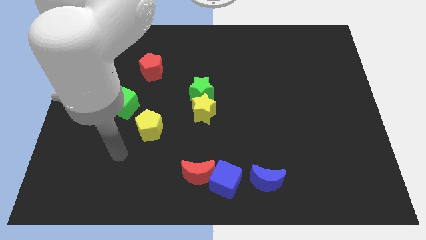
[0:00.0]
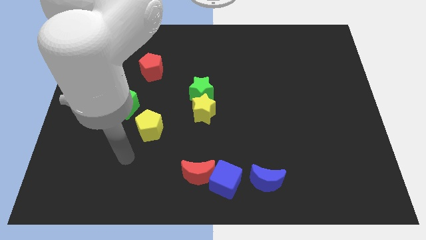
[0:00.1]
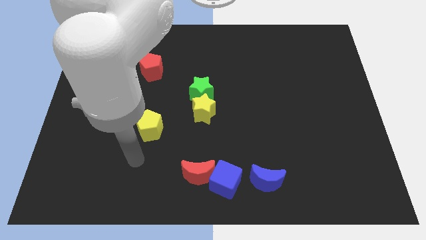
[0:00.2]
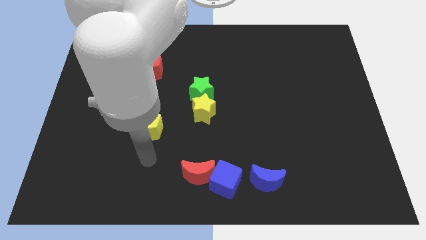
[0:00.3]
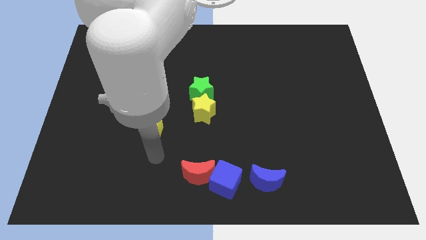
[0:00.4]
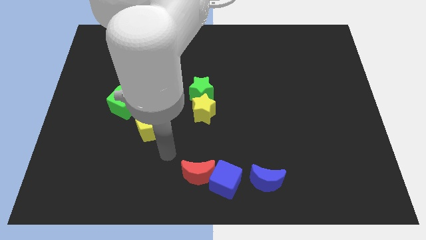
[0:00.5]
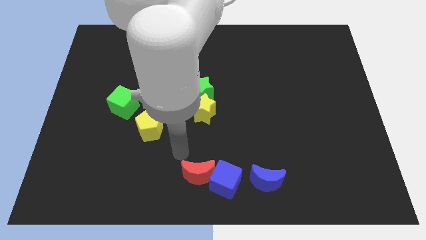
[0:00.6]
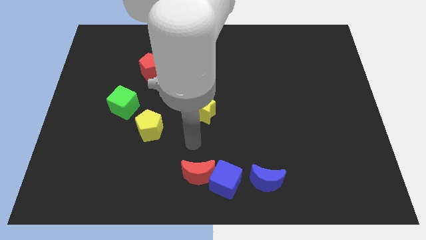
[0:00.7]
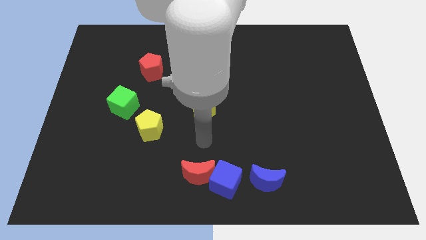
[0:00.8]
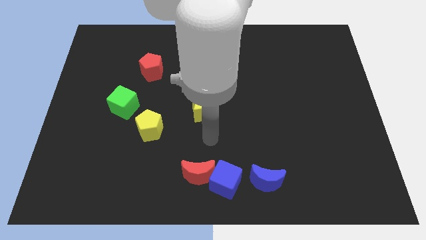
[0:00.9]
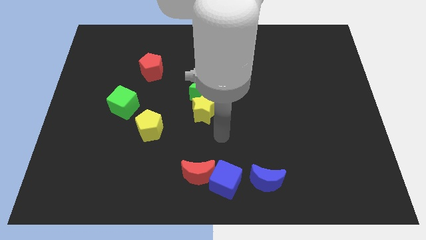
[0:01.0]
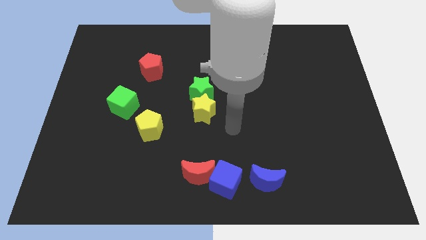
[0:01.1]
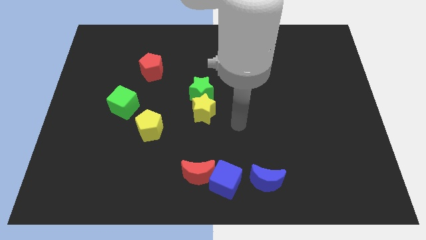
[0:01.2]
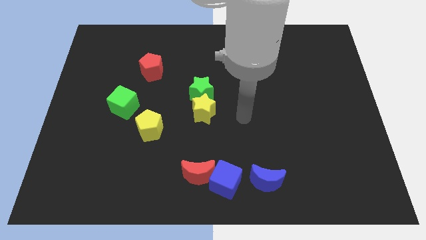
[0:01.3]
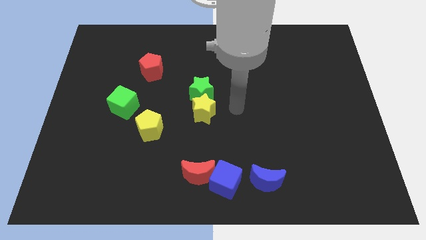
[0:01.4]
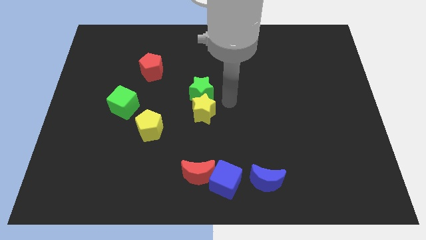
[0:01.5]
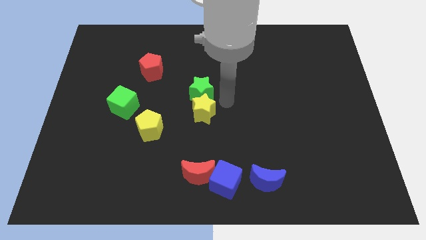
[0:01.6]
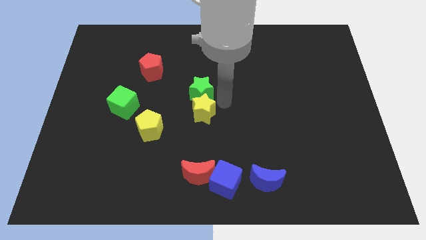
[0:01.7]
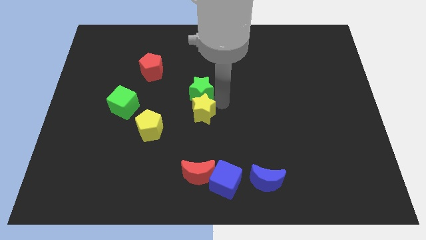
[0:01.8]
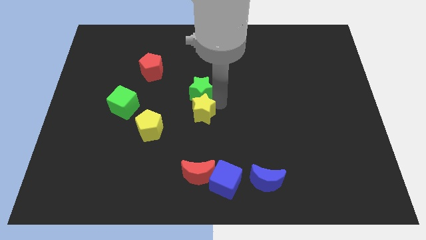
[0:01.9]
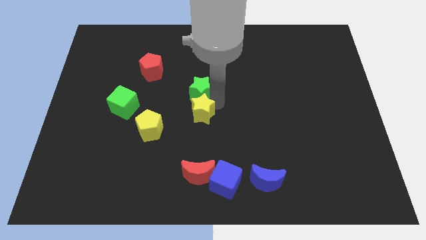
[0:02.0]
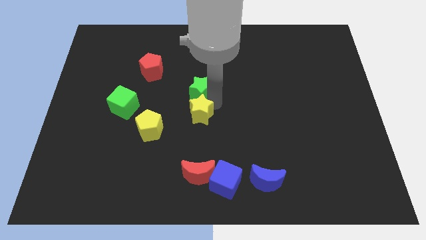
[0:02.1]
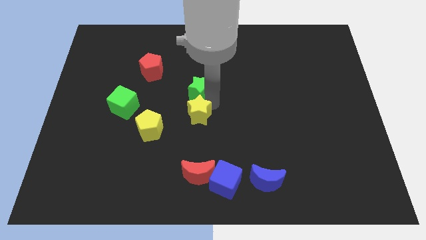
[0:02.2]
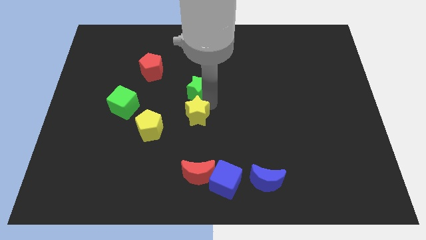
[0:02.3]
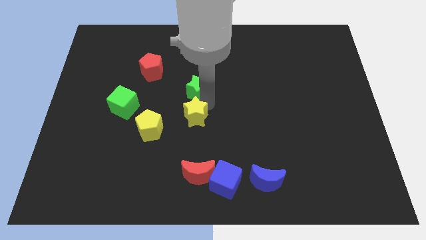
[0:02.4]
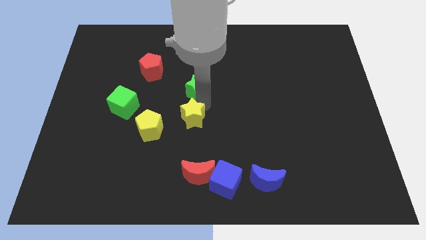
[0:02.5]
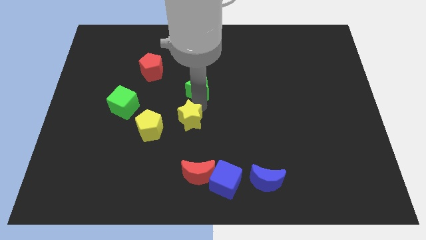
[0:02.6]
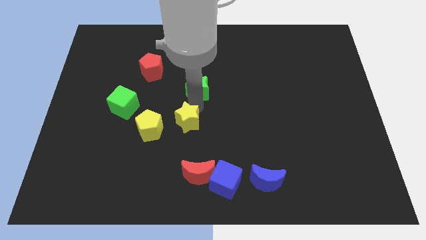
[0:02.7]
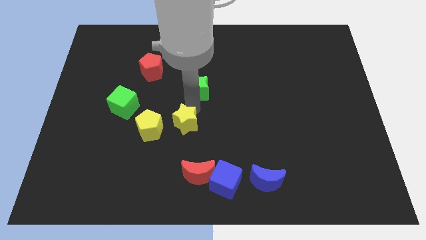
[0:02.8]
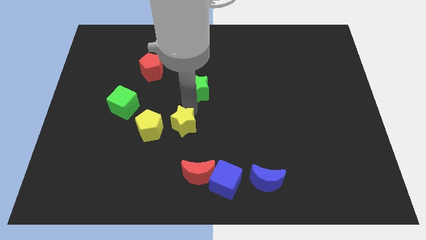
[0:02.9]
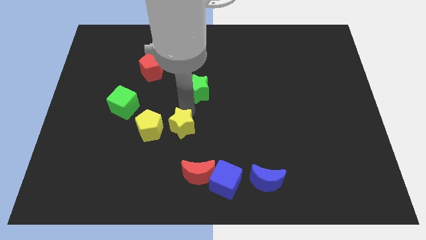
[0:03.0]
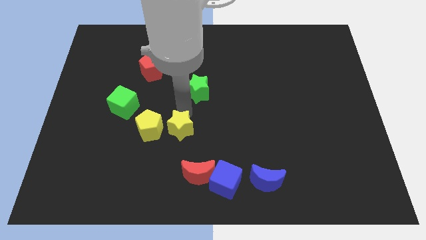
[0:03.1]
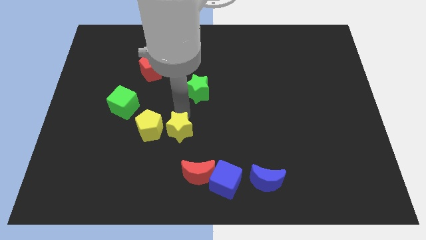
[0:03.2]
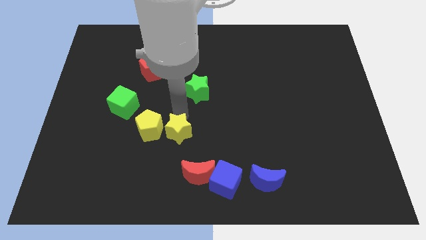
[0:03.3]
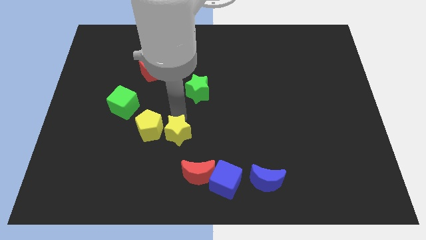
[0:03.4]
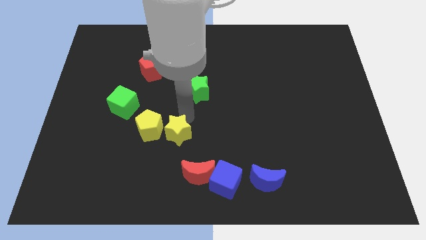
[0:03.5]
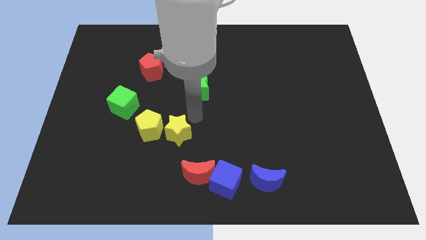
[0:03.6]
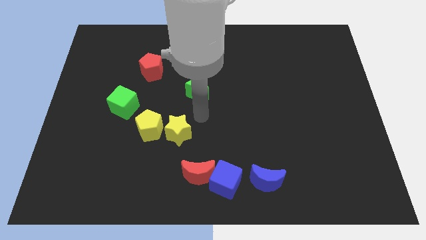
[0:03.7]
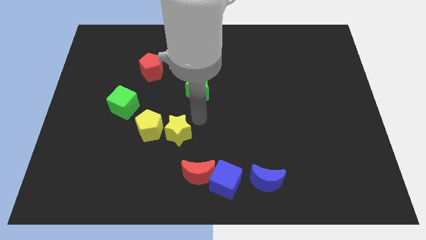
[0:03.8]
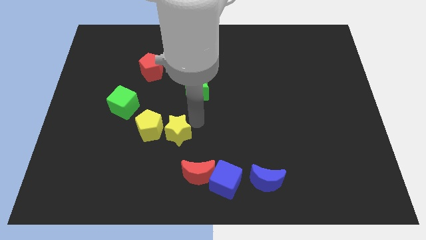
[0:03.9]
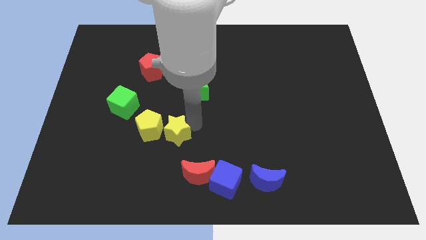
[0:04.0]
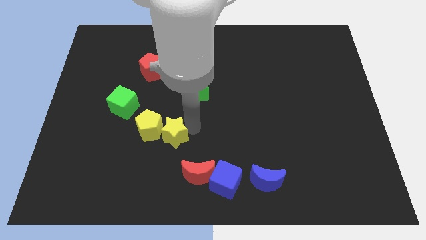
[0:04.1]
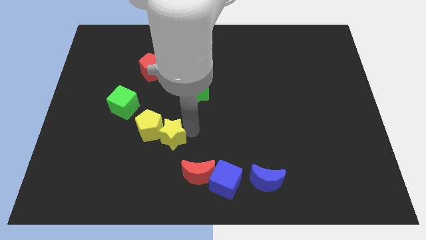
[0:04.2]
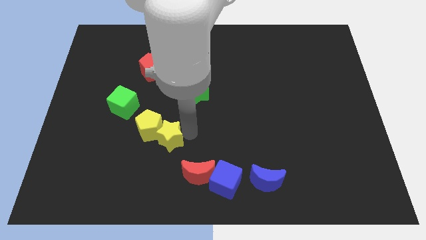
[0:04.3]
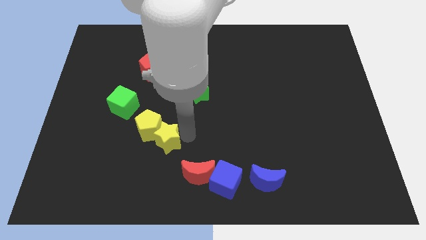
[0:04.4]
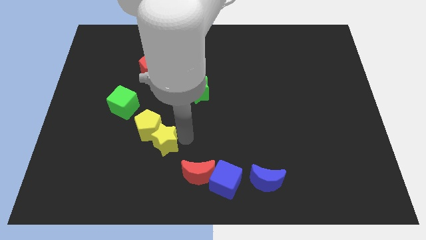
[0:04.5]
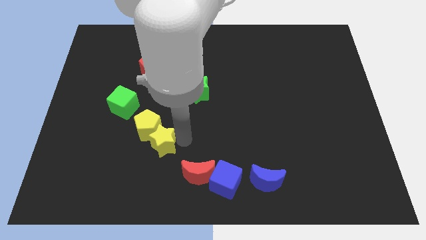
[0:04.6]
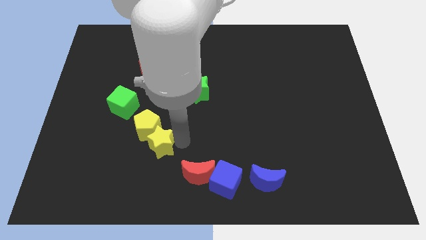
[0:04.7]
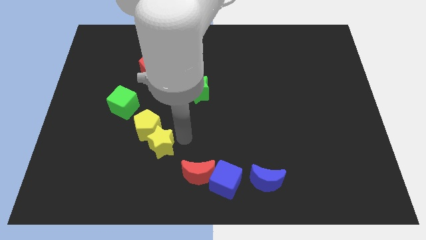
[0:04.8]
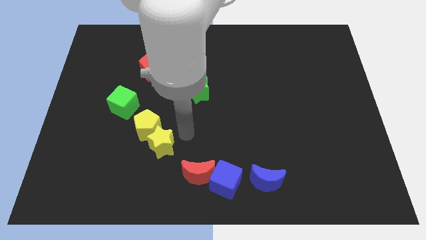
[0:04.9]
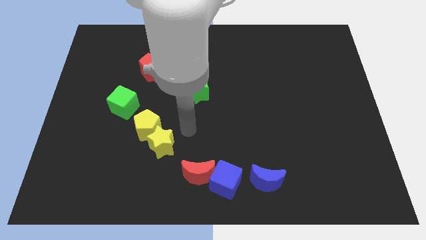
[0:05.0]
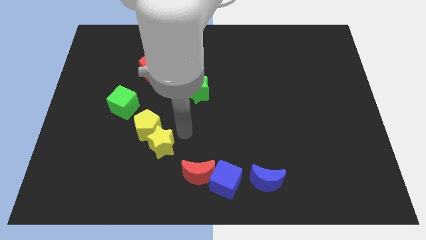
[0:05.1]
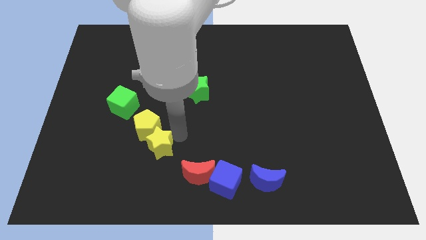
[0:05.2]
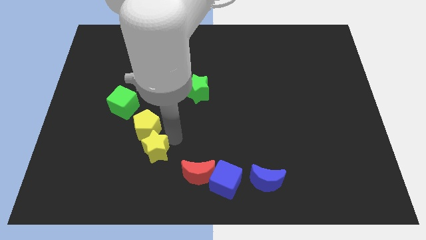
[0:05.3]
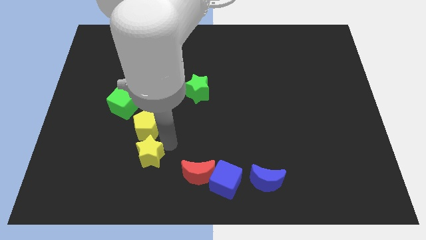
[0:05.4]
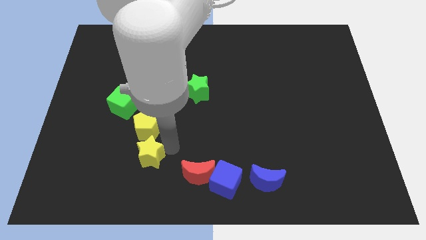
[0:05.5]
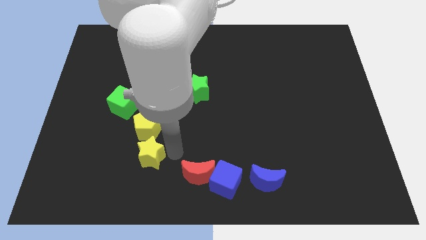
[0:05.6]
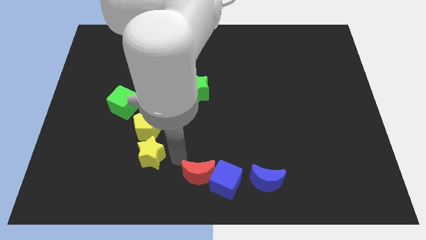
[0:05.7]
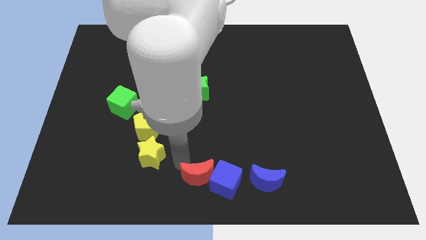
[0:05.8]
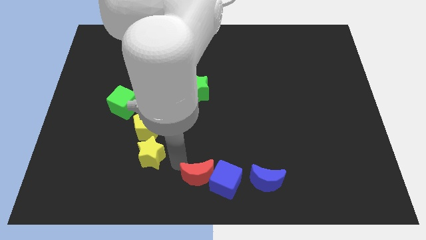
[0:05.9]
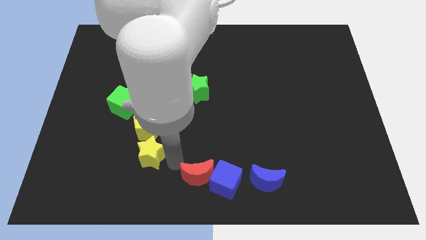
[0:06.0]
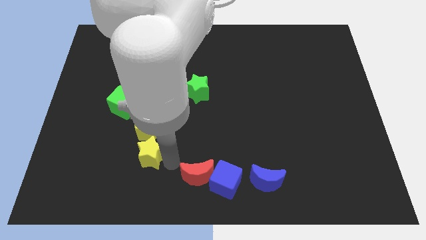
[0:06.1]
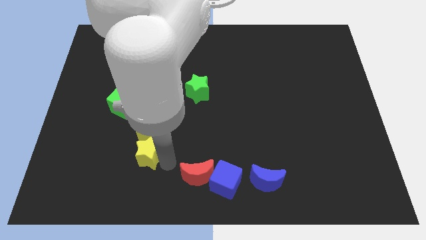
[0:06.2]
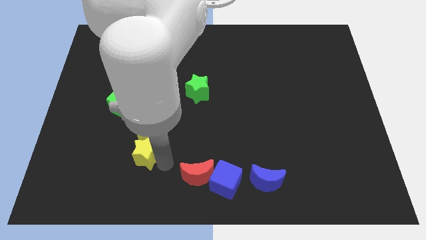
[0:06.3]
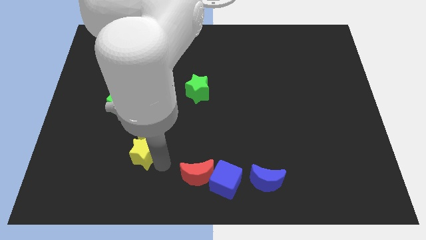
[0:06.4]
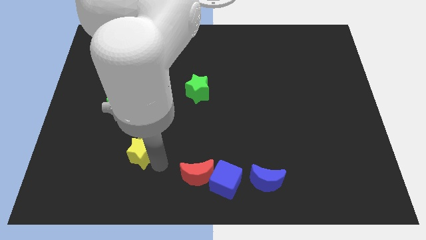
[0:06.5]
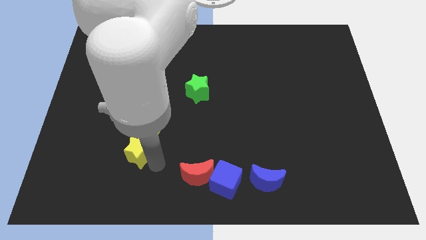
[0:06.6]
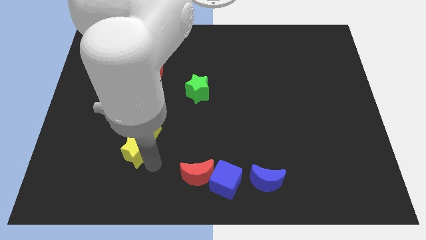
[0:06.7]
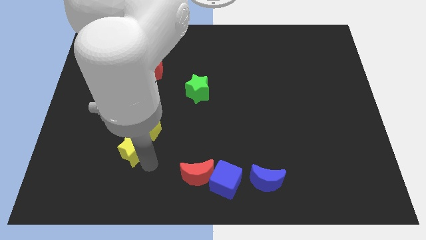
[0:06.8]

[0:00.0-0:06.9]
slide the yellow star to the bottom of the green cube
